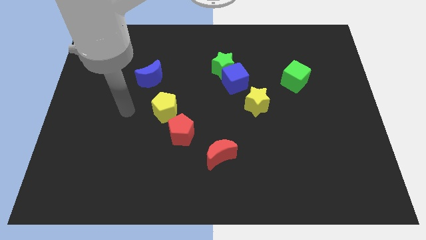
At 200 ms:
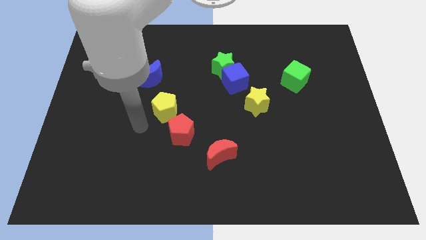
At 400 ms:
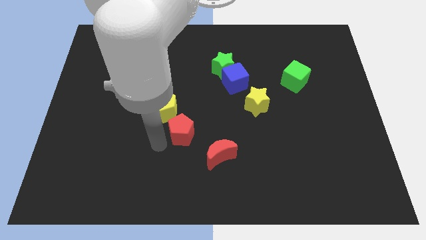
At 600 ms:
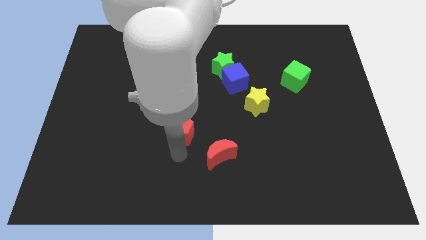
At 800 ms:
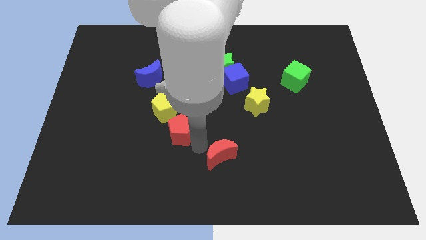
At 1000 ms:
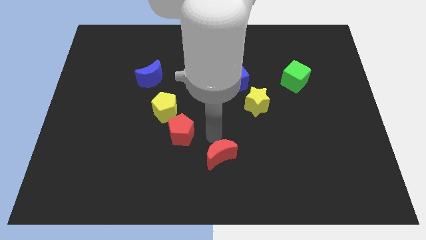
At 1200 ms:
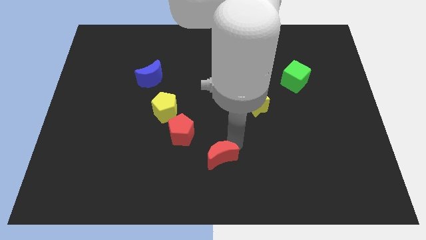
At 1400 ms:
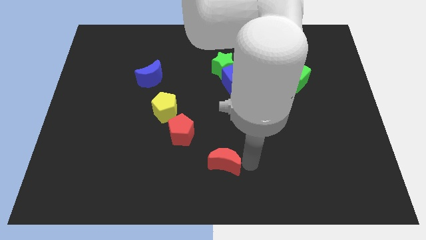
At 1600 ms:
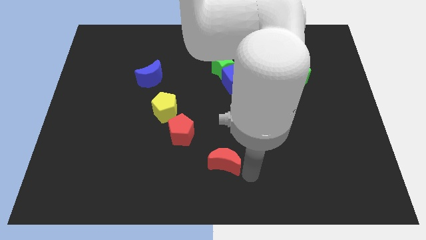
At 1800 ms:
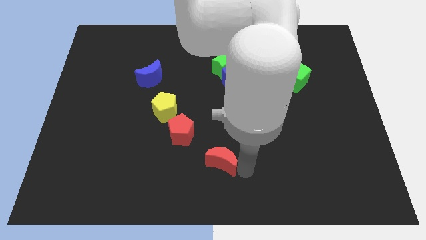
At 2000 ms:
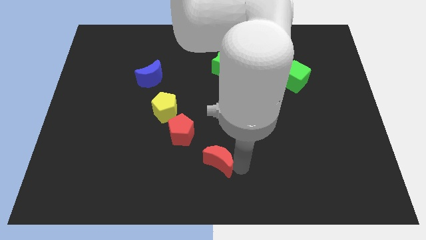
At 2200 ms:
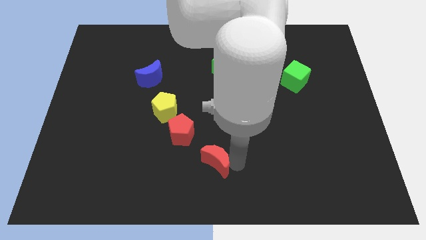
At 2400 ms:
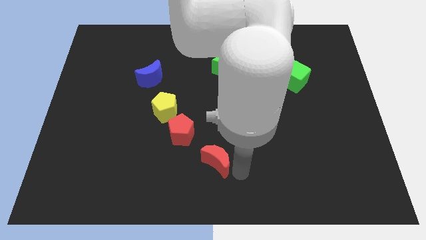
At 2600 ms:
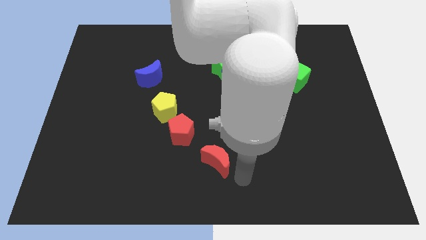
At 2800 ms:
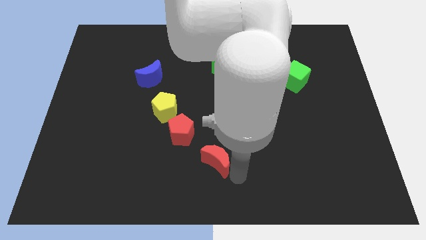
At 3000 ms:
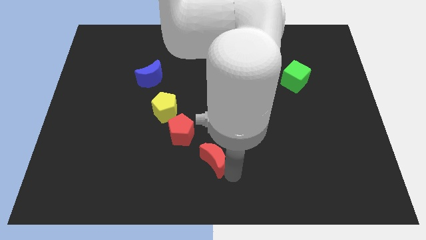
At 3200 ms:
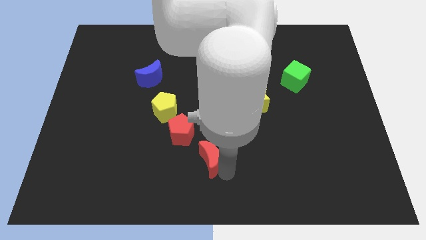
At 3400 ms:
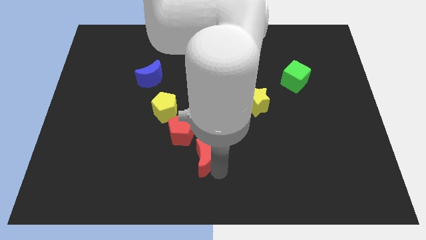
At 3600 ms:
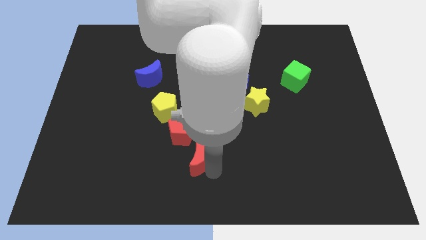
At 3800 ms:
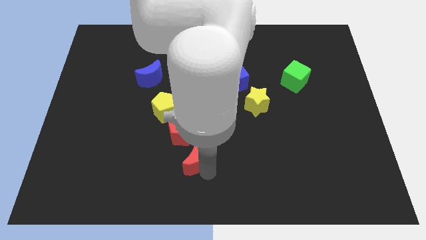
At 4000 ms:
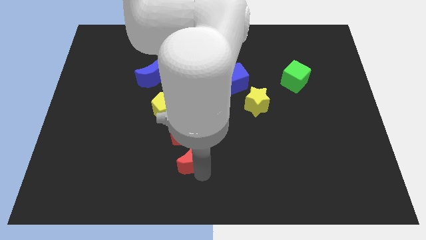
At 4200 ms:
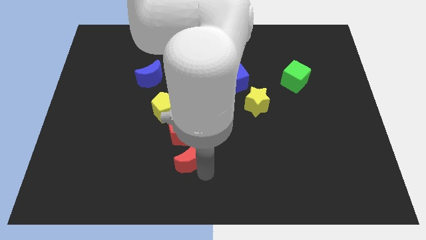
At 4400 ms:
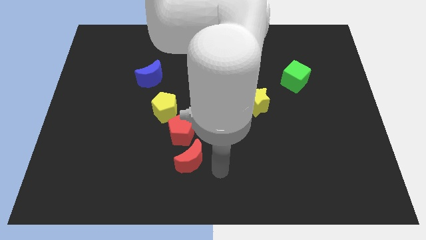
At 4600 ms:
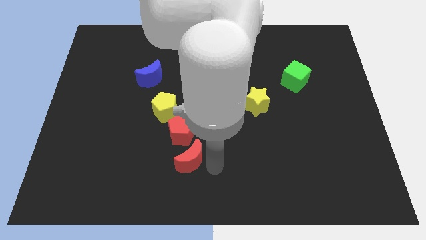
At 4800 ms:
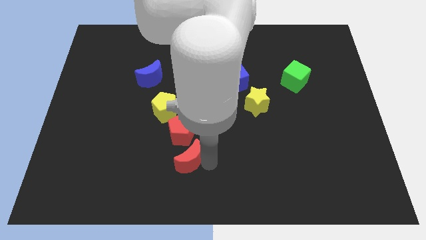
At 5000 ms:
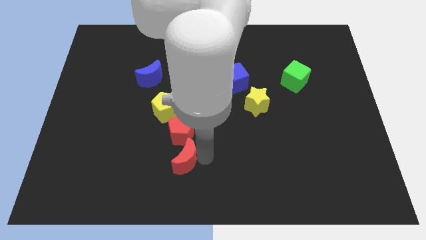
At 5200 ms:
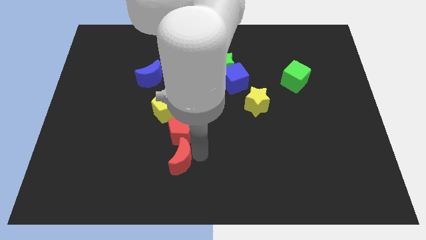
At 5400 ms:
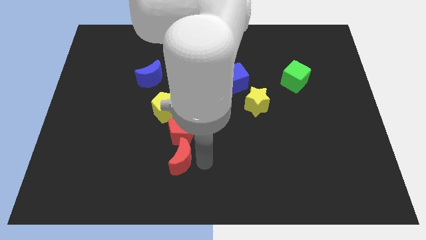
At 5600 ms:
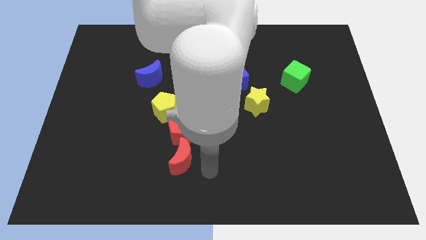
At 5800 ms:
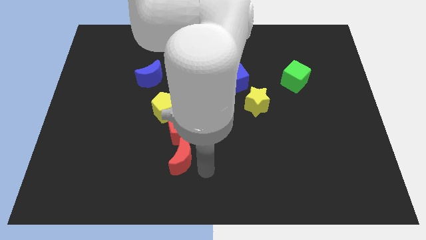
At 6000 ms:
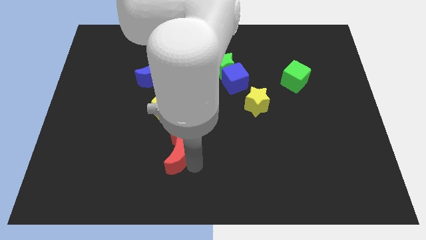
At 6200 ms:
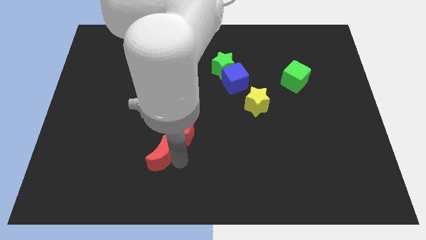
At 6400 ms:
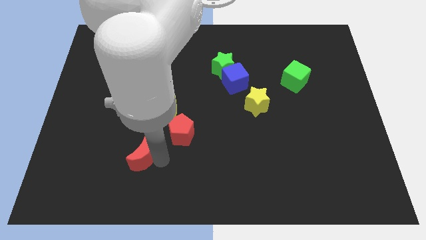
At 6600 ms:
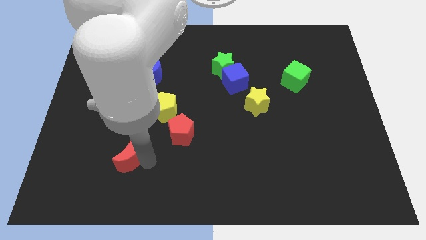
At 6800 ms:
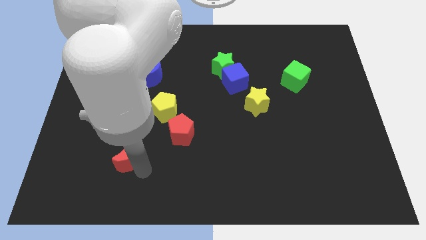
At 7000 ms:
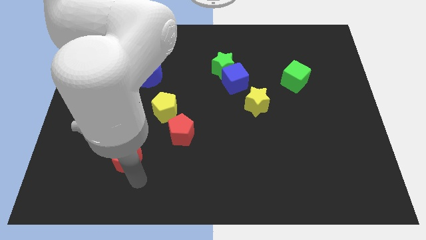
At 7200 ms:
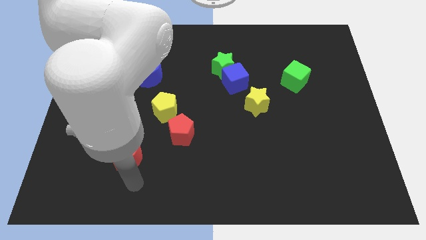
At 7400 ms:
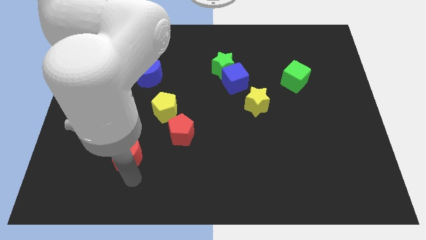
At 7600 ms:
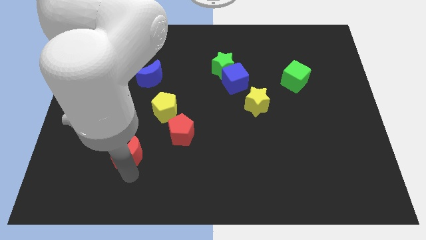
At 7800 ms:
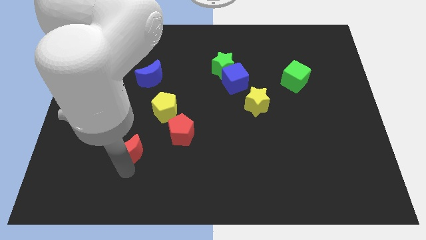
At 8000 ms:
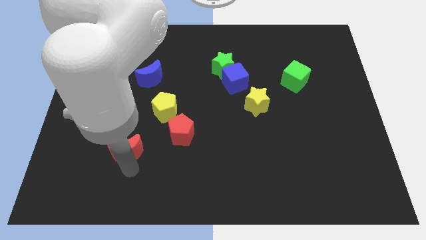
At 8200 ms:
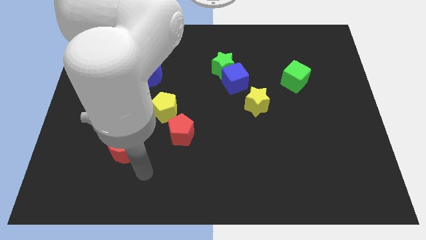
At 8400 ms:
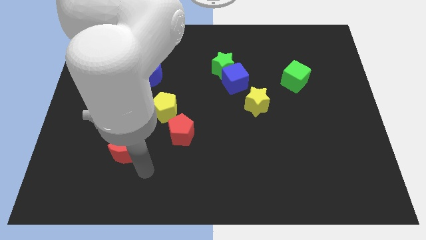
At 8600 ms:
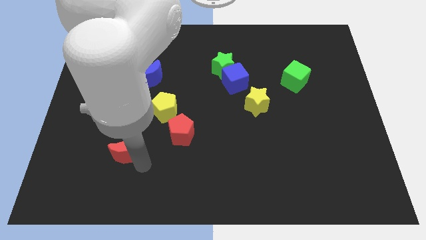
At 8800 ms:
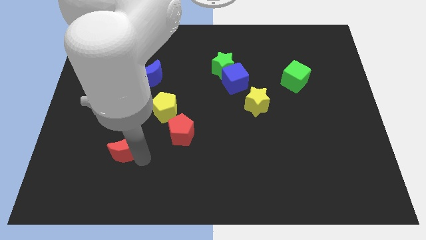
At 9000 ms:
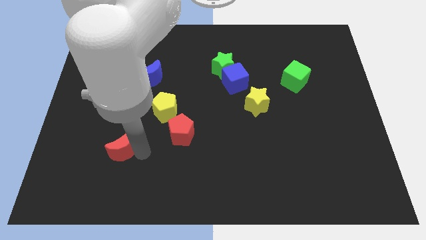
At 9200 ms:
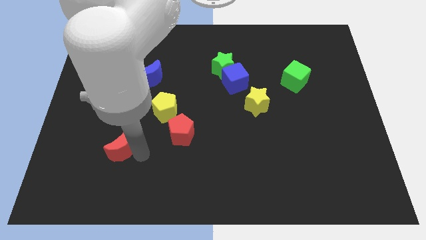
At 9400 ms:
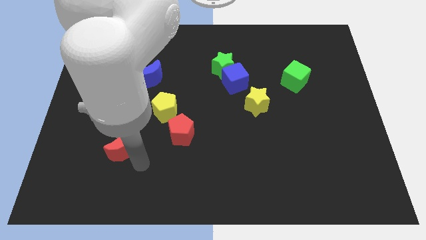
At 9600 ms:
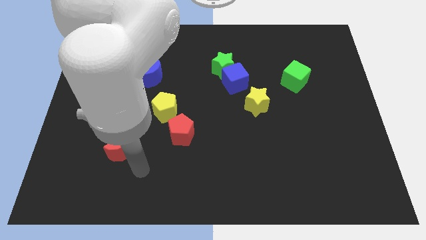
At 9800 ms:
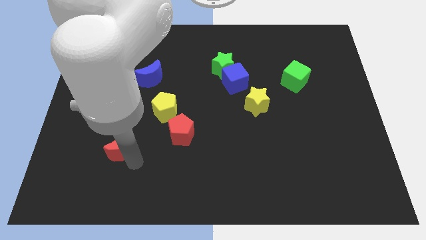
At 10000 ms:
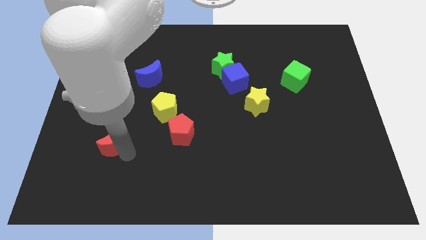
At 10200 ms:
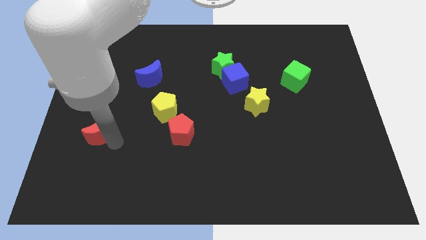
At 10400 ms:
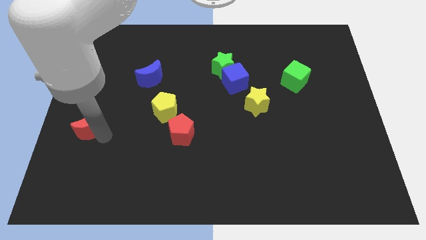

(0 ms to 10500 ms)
move the red moon to the center left

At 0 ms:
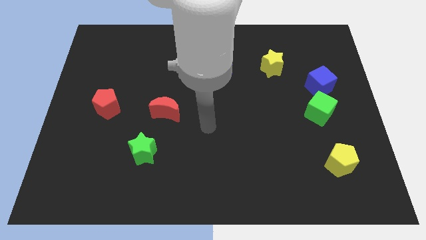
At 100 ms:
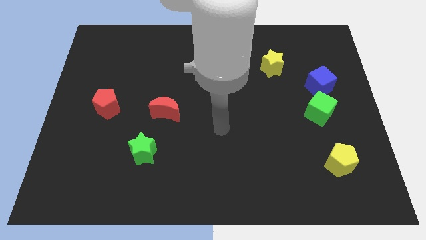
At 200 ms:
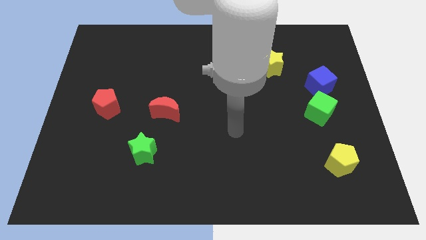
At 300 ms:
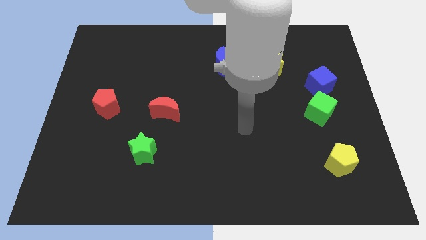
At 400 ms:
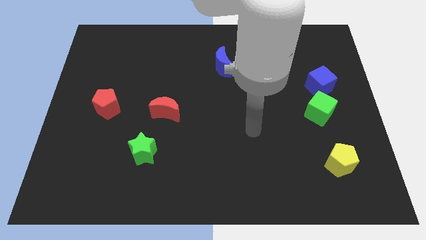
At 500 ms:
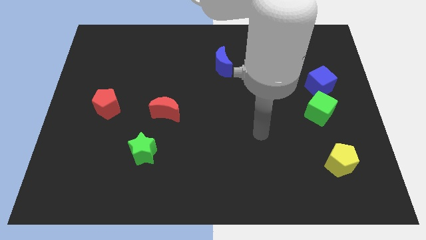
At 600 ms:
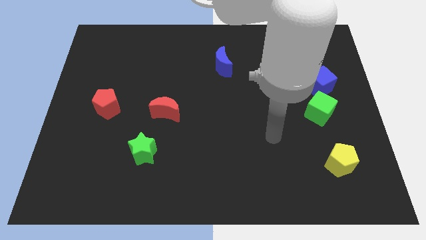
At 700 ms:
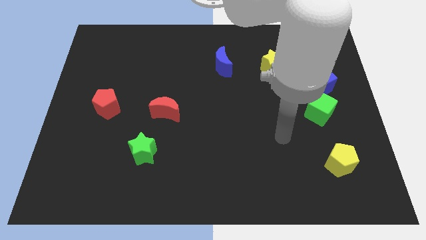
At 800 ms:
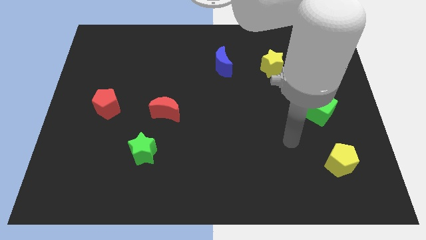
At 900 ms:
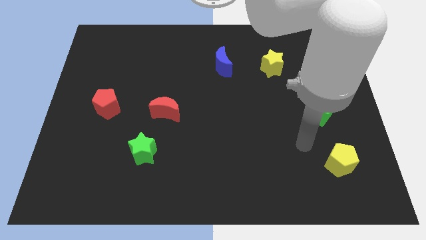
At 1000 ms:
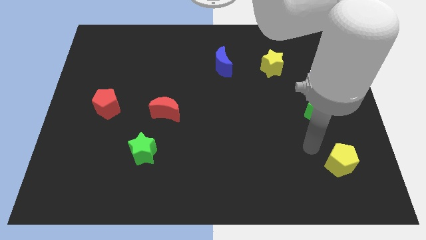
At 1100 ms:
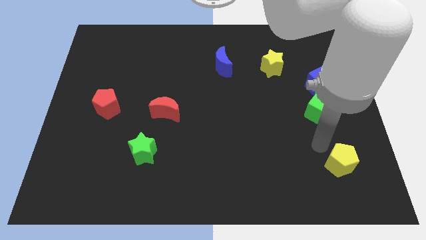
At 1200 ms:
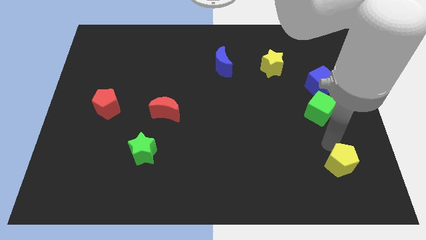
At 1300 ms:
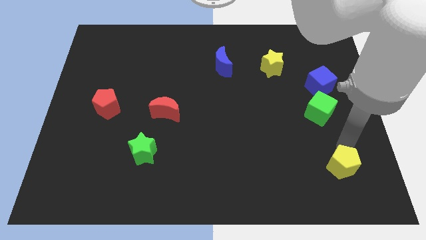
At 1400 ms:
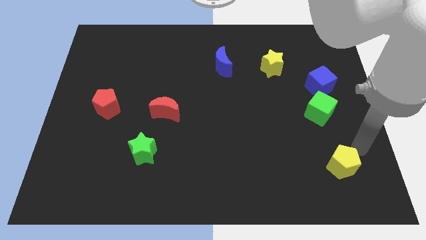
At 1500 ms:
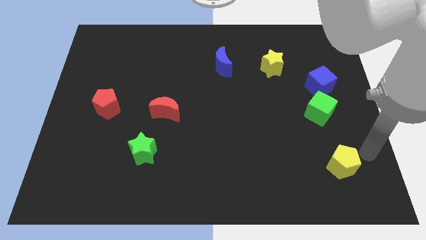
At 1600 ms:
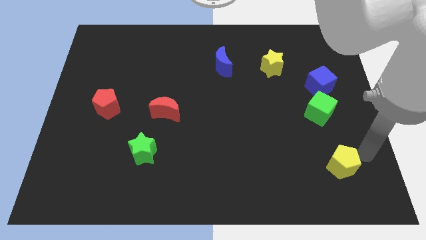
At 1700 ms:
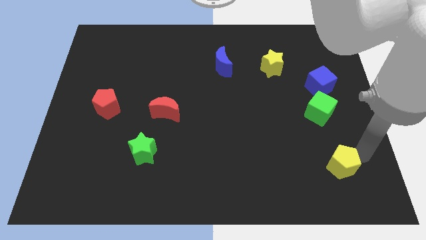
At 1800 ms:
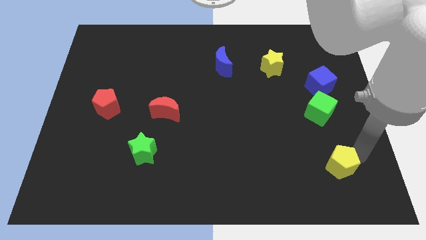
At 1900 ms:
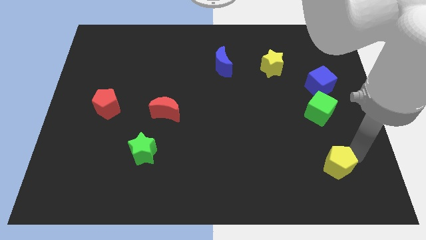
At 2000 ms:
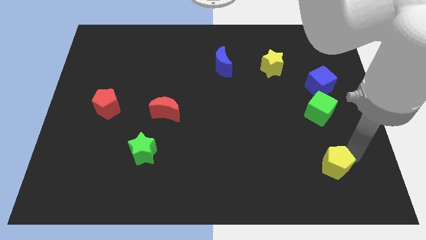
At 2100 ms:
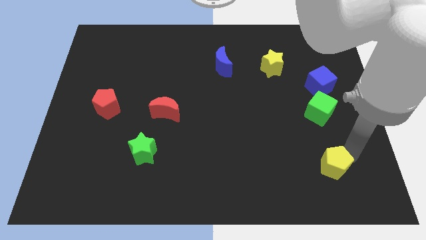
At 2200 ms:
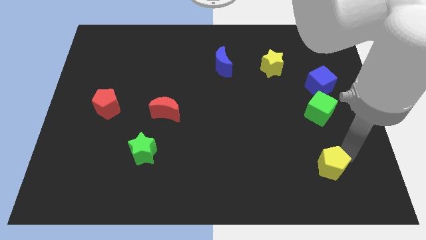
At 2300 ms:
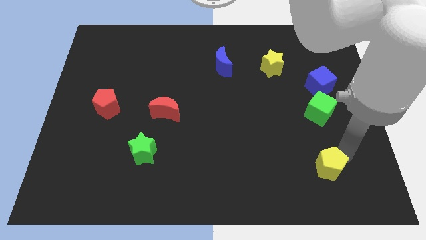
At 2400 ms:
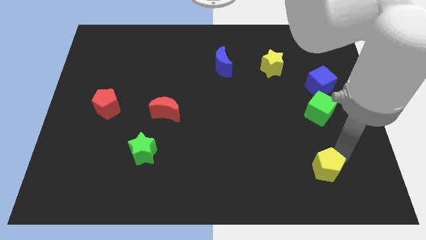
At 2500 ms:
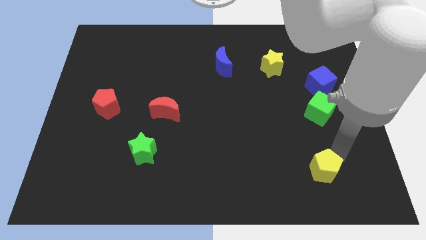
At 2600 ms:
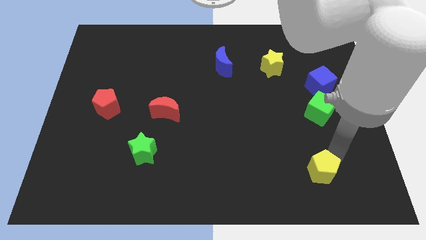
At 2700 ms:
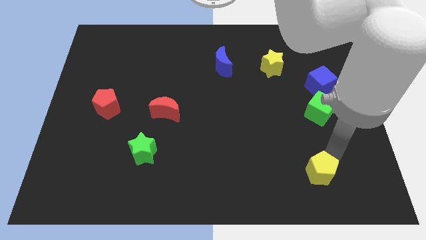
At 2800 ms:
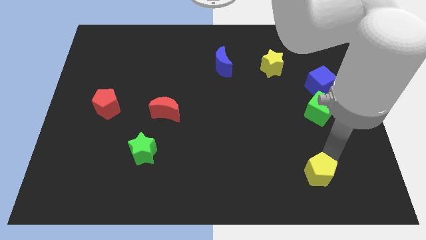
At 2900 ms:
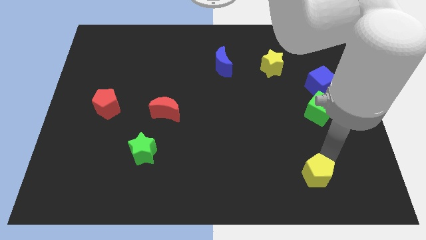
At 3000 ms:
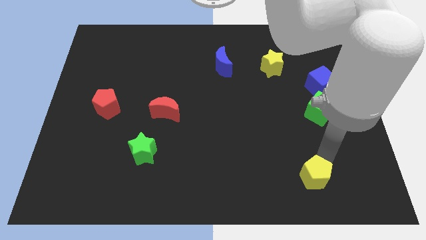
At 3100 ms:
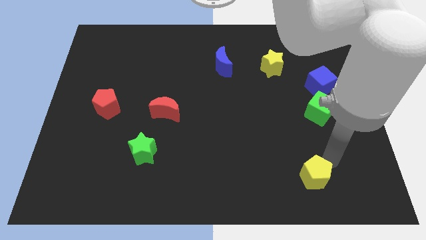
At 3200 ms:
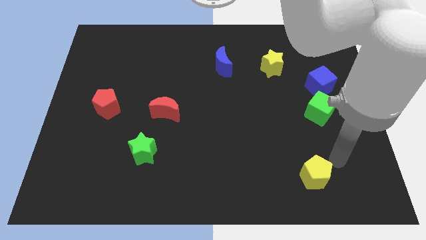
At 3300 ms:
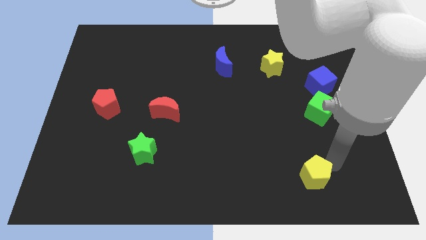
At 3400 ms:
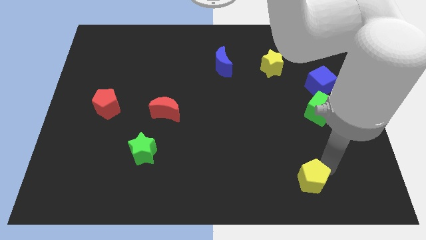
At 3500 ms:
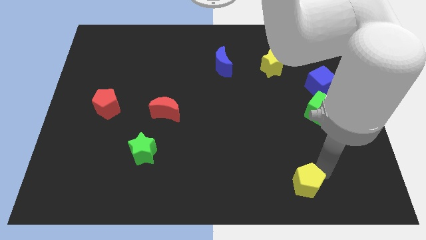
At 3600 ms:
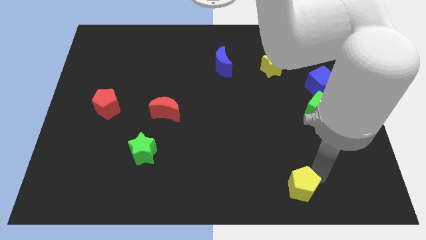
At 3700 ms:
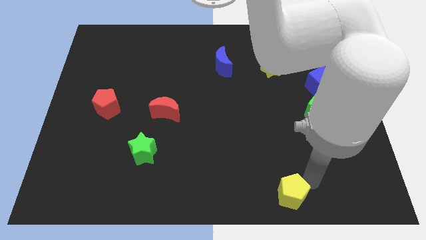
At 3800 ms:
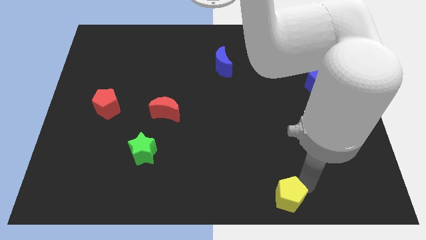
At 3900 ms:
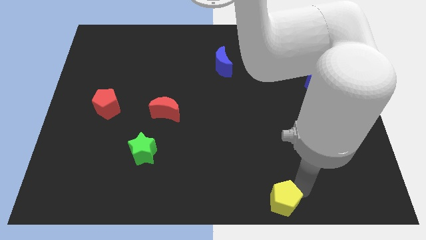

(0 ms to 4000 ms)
slide the yellow pentagon to the bottom
